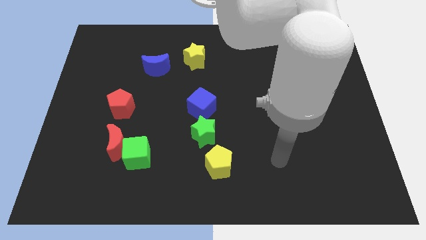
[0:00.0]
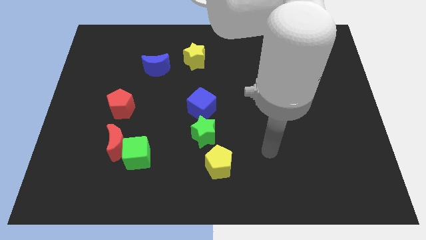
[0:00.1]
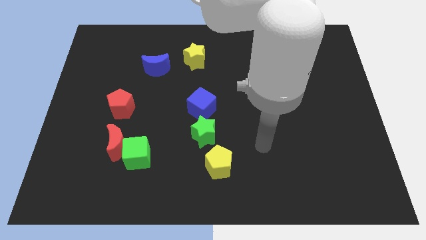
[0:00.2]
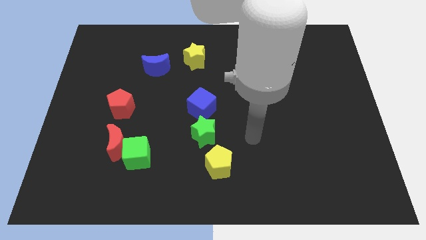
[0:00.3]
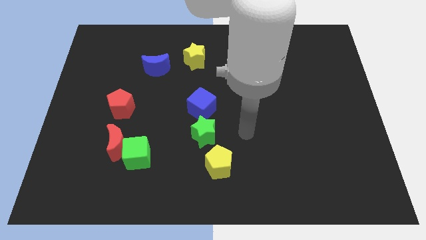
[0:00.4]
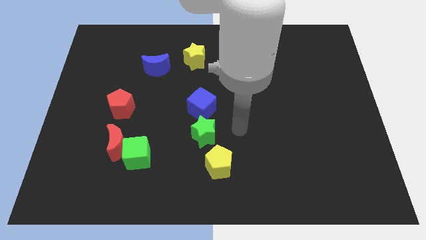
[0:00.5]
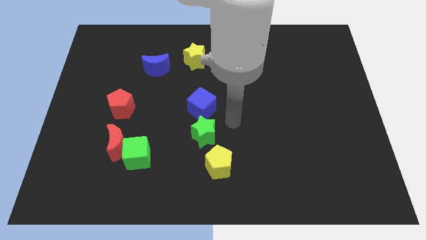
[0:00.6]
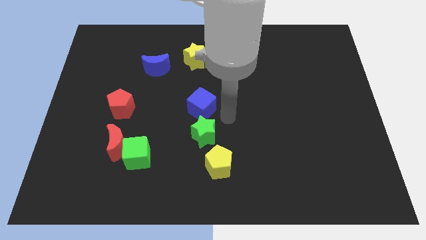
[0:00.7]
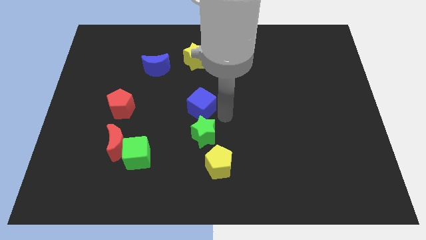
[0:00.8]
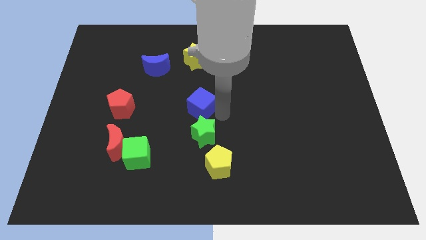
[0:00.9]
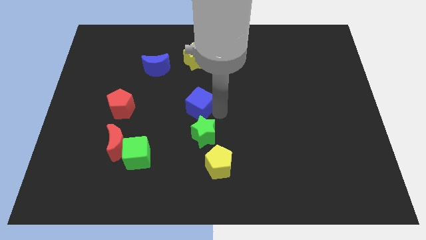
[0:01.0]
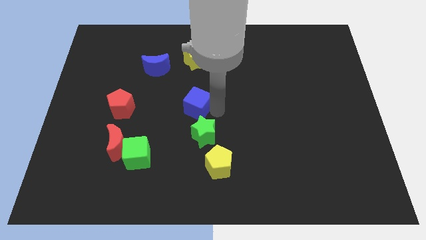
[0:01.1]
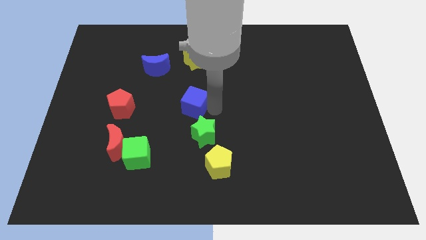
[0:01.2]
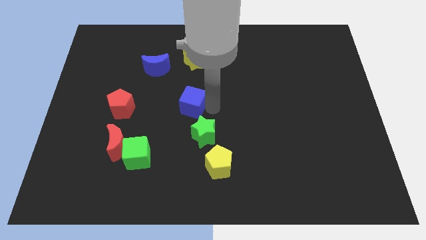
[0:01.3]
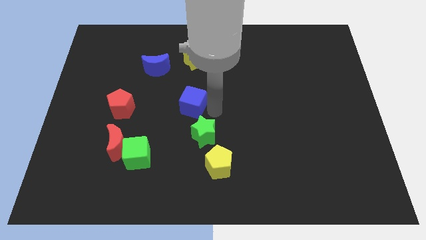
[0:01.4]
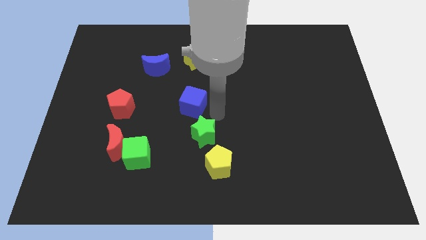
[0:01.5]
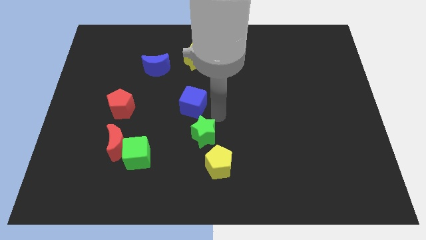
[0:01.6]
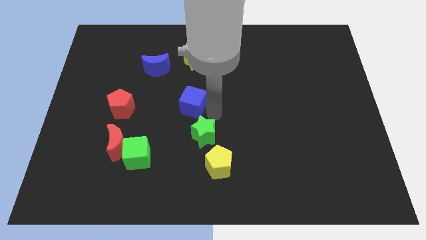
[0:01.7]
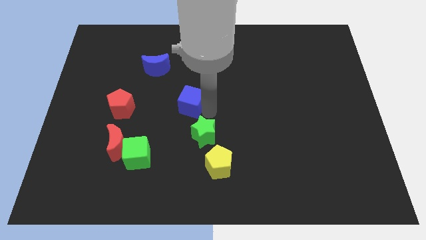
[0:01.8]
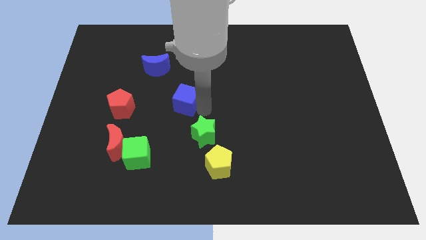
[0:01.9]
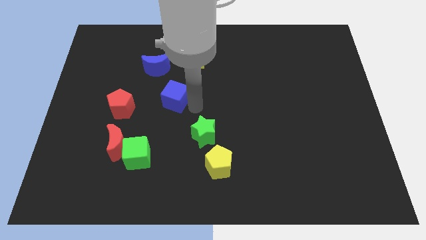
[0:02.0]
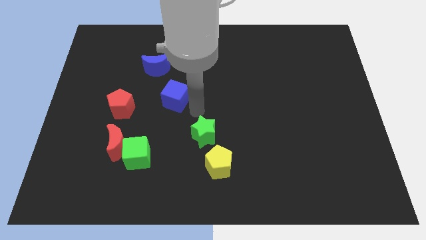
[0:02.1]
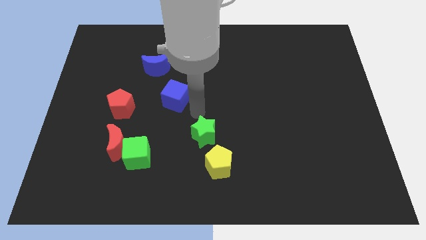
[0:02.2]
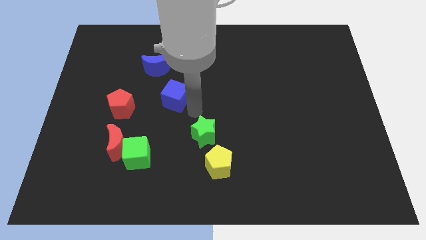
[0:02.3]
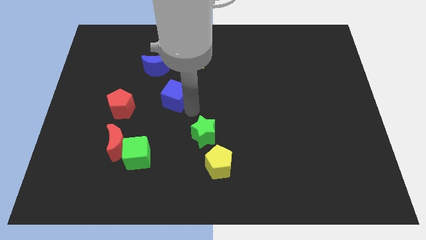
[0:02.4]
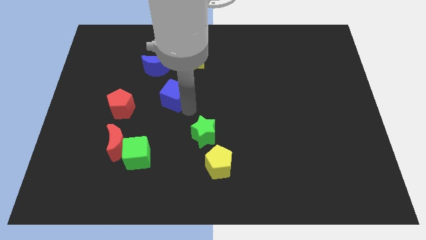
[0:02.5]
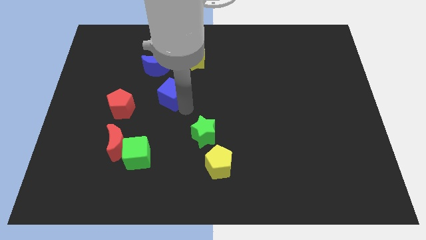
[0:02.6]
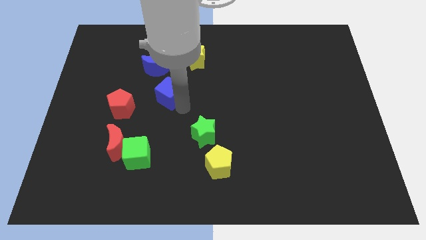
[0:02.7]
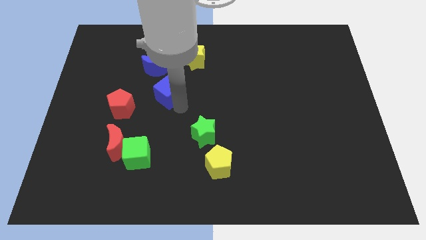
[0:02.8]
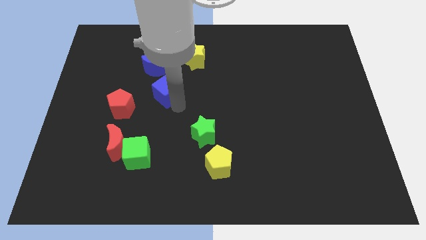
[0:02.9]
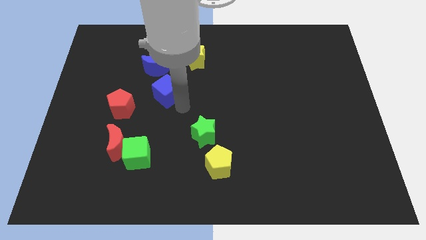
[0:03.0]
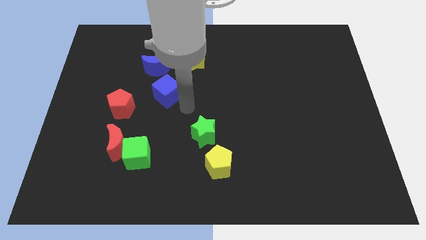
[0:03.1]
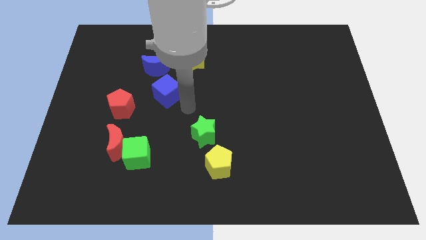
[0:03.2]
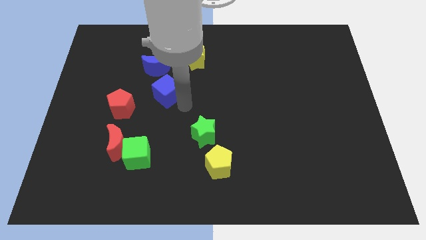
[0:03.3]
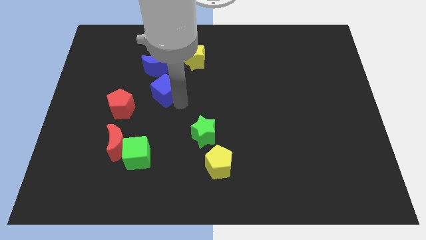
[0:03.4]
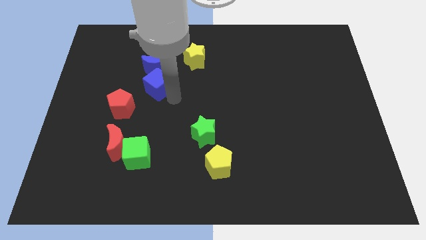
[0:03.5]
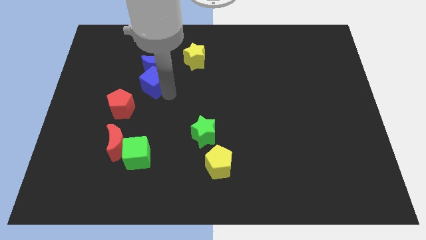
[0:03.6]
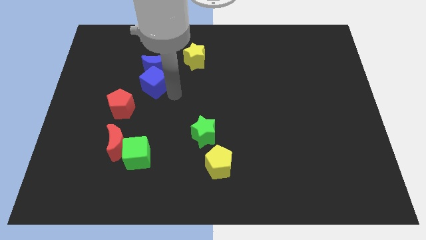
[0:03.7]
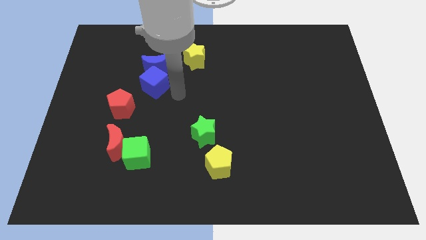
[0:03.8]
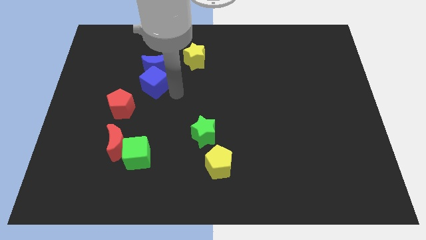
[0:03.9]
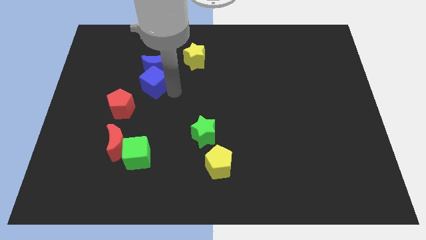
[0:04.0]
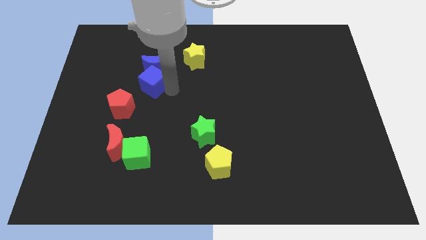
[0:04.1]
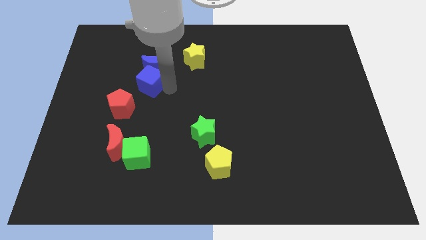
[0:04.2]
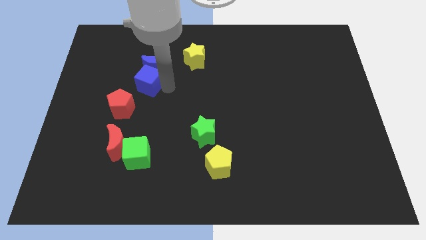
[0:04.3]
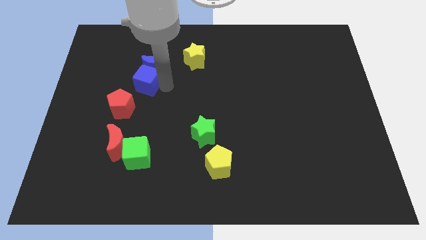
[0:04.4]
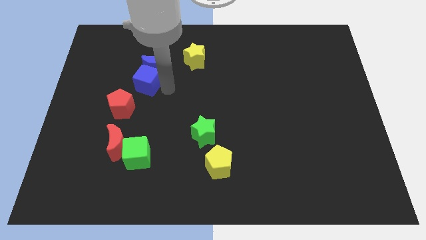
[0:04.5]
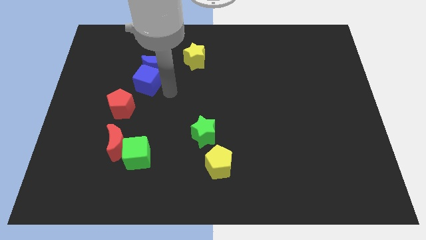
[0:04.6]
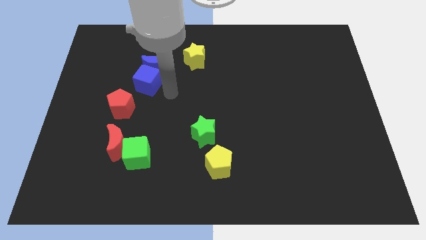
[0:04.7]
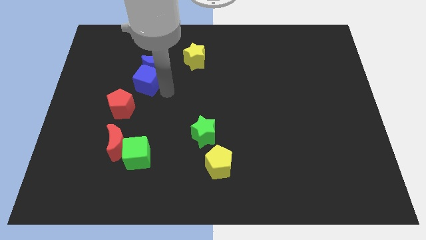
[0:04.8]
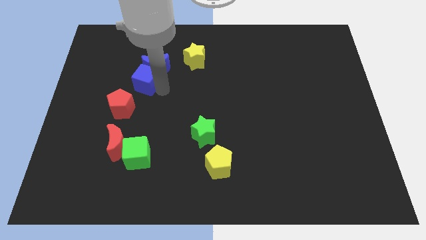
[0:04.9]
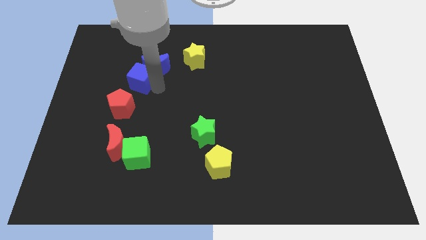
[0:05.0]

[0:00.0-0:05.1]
push the blue cube to the left side of the blue moon

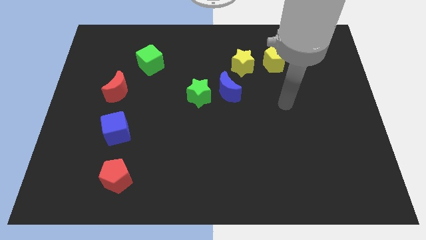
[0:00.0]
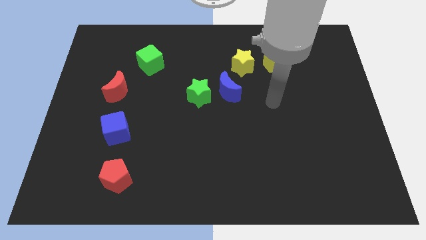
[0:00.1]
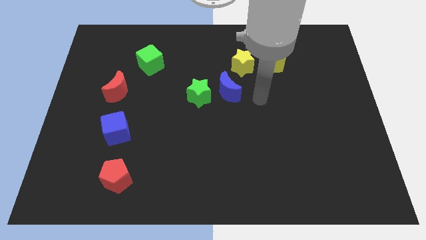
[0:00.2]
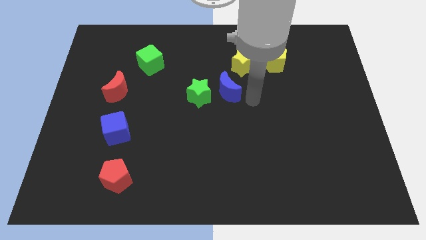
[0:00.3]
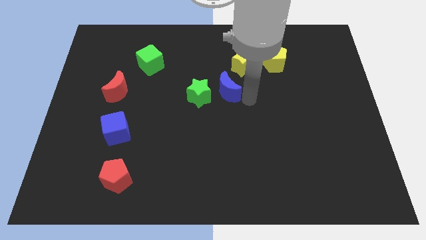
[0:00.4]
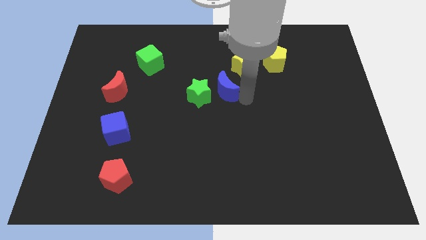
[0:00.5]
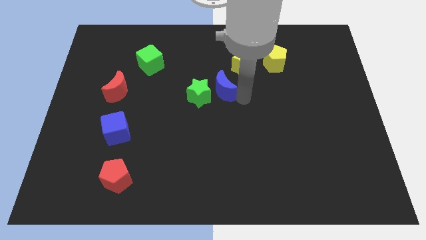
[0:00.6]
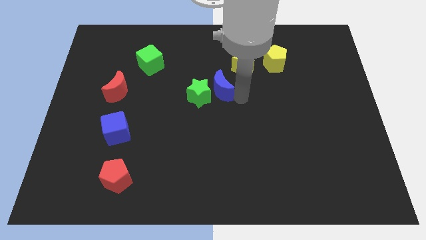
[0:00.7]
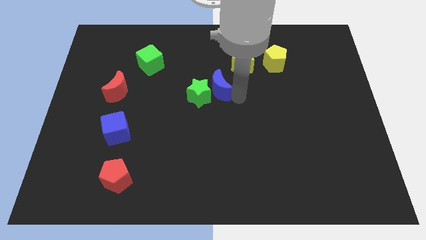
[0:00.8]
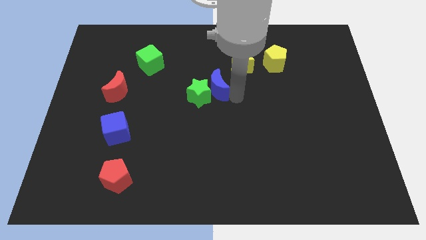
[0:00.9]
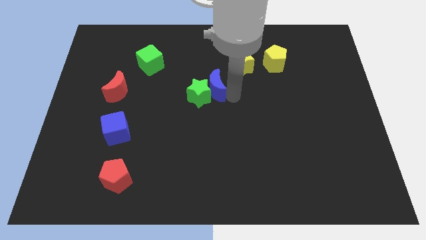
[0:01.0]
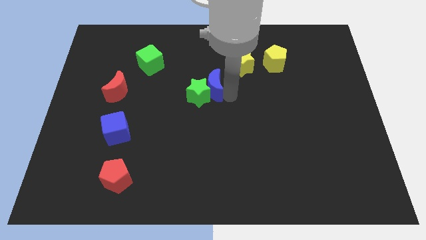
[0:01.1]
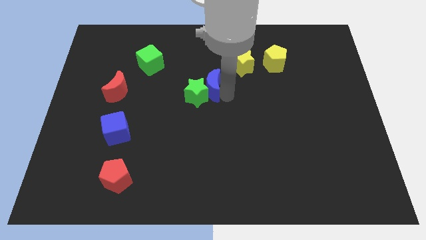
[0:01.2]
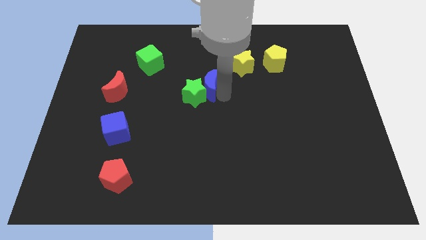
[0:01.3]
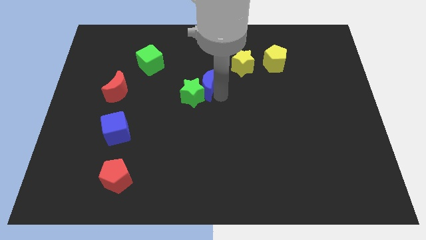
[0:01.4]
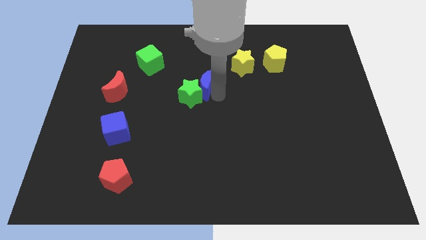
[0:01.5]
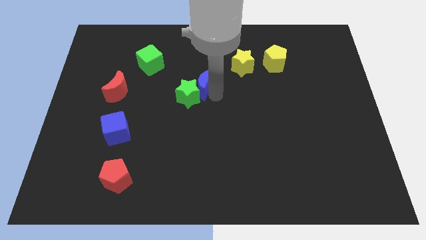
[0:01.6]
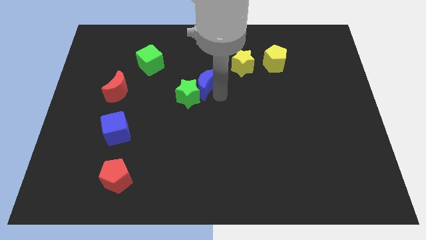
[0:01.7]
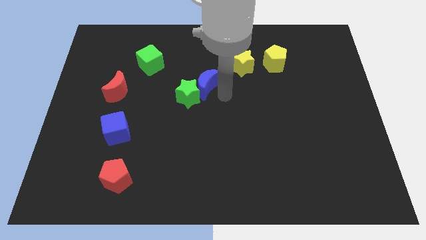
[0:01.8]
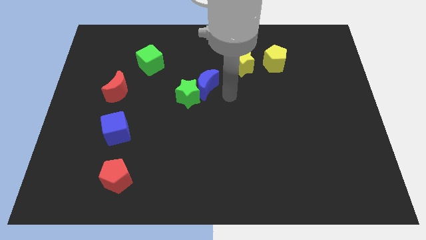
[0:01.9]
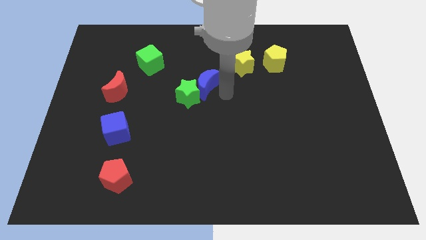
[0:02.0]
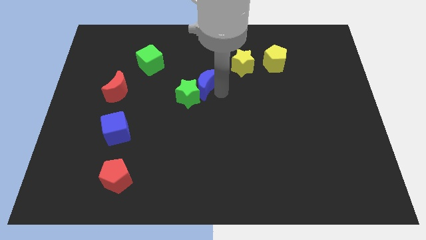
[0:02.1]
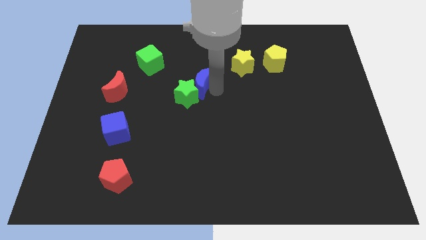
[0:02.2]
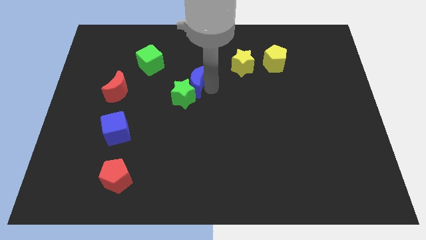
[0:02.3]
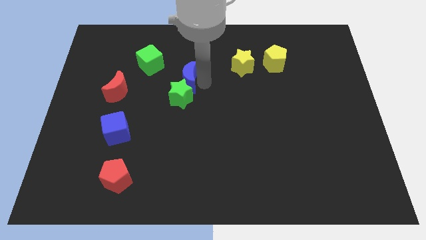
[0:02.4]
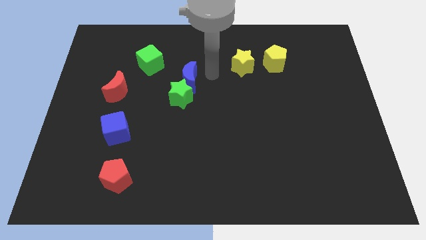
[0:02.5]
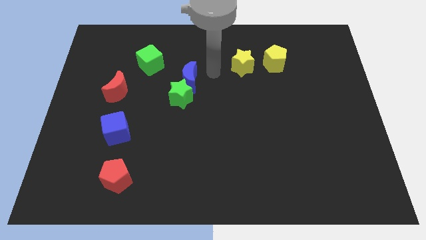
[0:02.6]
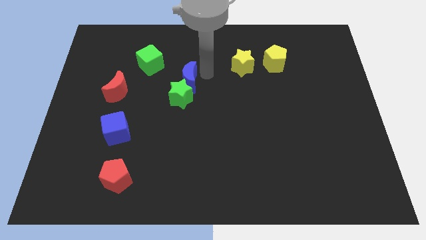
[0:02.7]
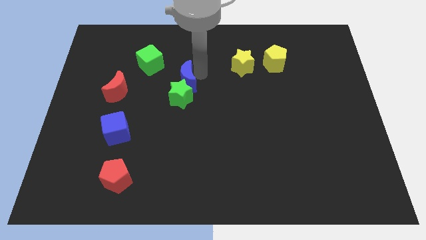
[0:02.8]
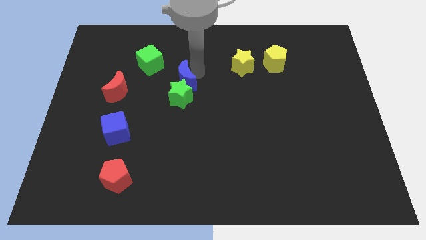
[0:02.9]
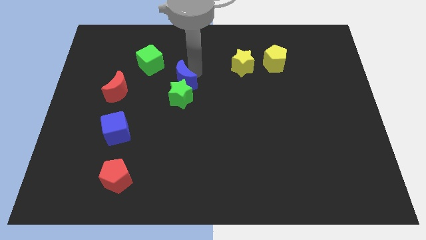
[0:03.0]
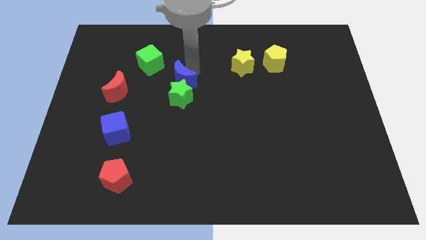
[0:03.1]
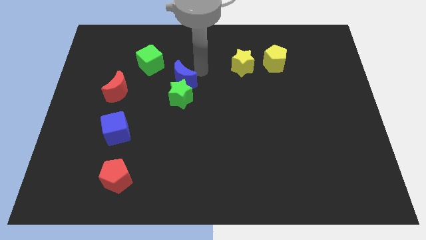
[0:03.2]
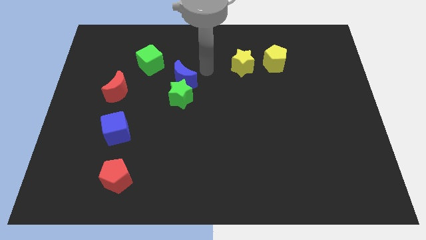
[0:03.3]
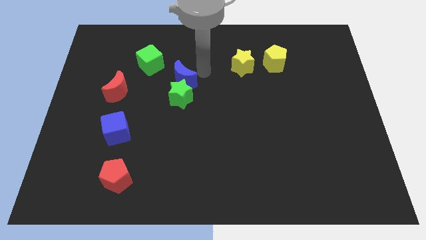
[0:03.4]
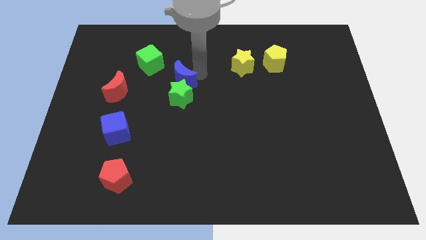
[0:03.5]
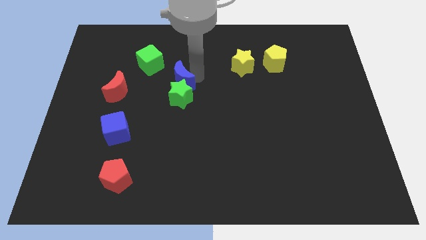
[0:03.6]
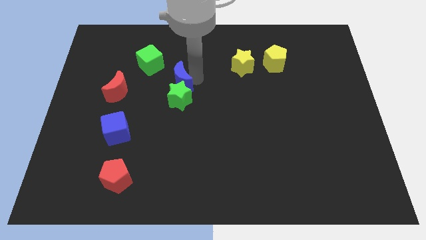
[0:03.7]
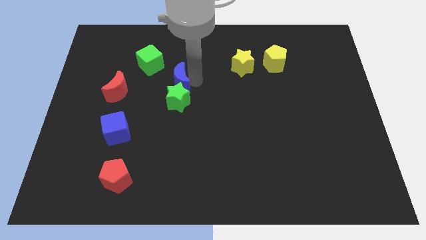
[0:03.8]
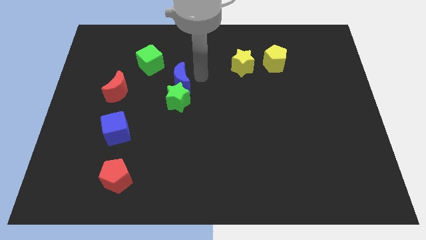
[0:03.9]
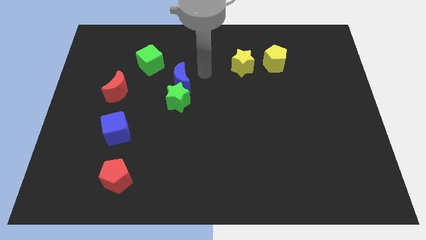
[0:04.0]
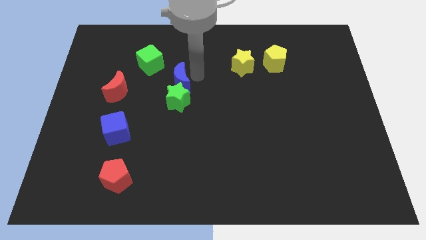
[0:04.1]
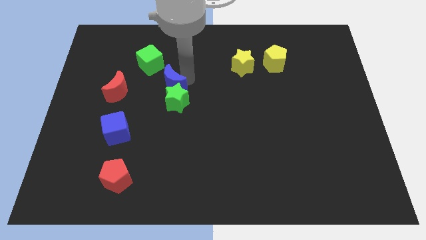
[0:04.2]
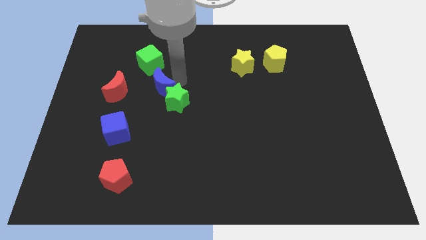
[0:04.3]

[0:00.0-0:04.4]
slide the blue moon left of the green star
